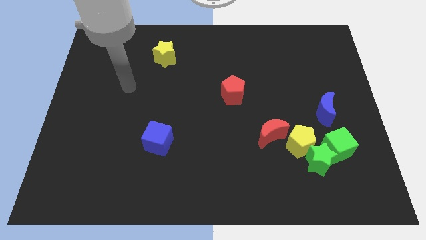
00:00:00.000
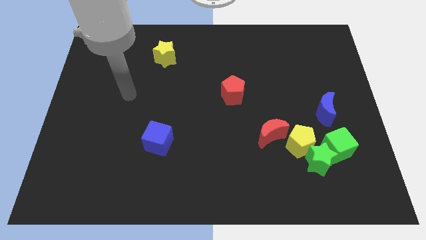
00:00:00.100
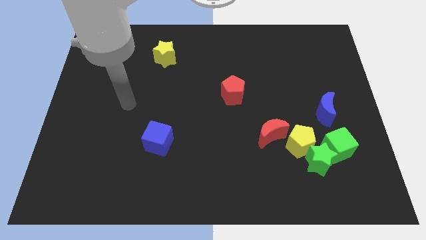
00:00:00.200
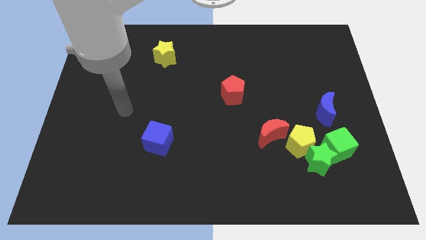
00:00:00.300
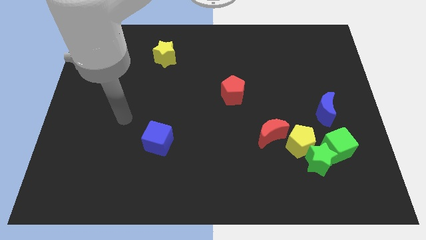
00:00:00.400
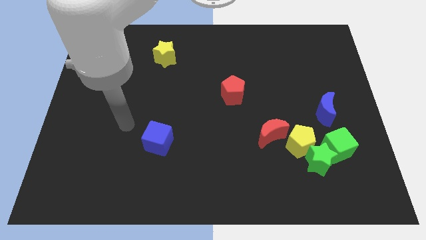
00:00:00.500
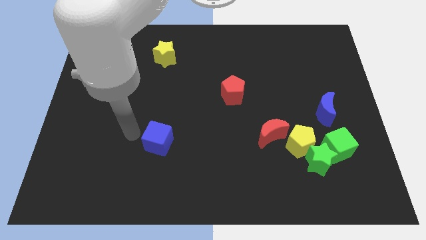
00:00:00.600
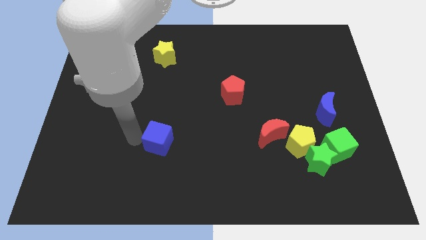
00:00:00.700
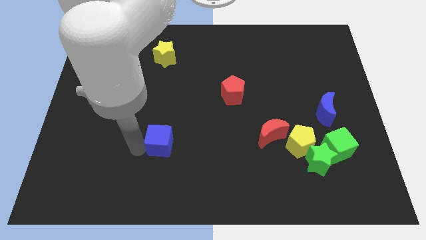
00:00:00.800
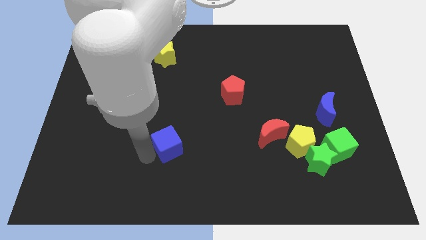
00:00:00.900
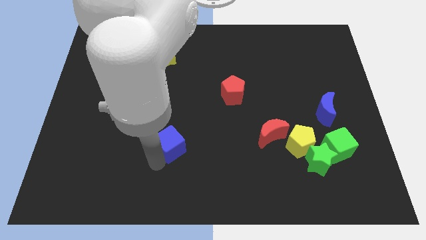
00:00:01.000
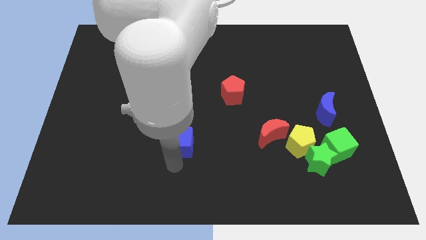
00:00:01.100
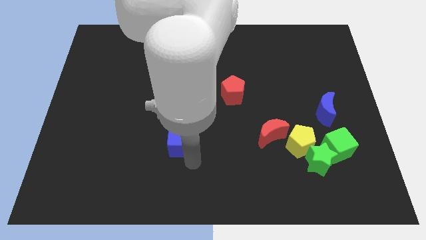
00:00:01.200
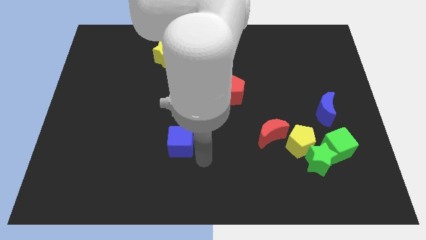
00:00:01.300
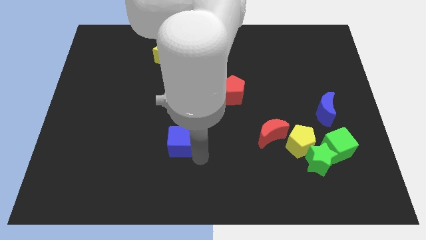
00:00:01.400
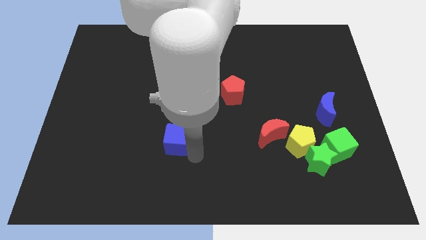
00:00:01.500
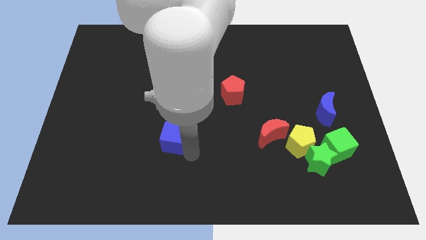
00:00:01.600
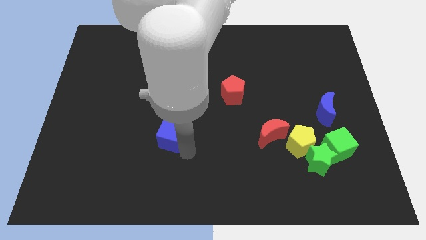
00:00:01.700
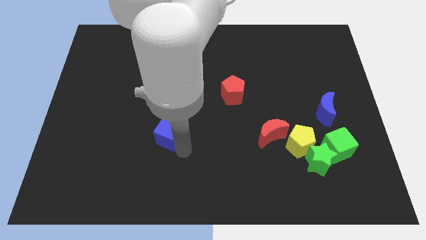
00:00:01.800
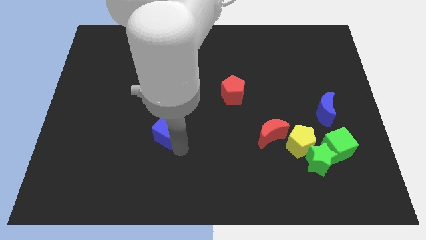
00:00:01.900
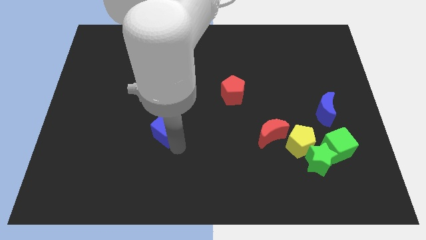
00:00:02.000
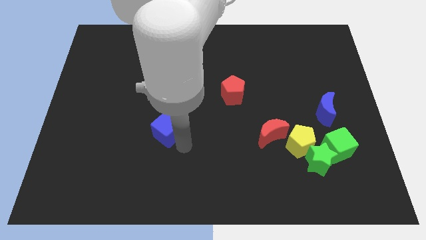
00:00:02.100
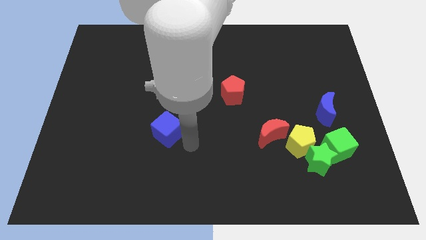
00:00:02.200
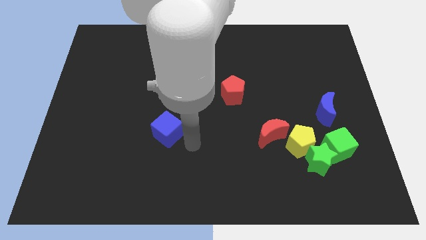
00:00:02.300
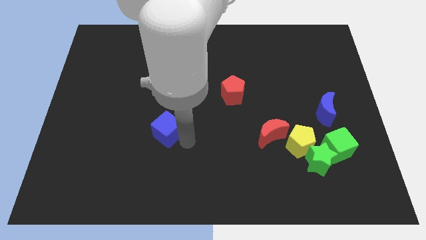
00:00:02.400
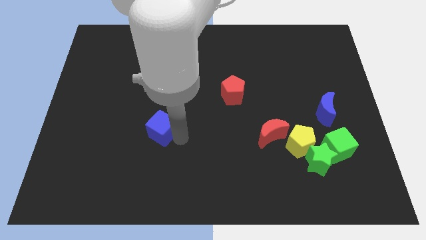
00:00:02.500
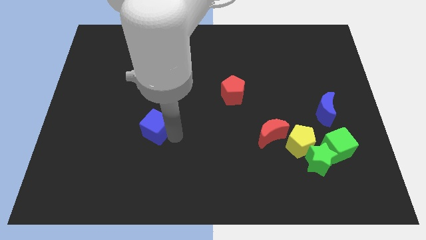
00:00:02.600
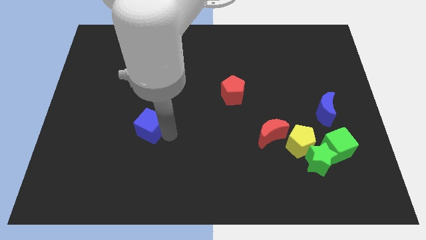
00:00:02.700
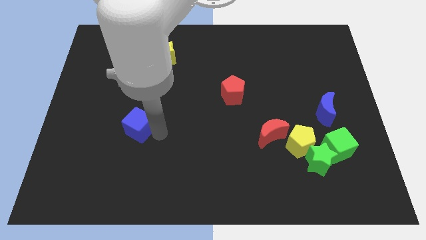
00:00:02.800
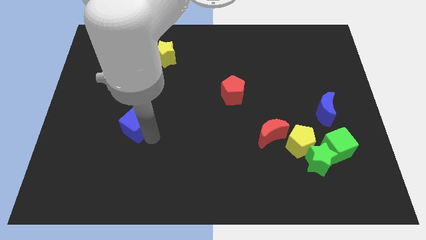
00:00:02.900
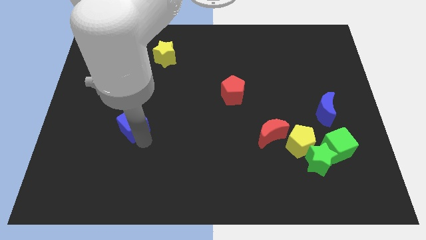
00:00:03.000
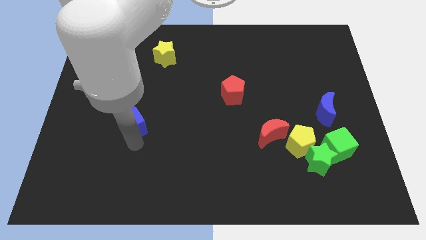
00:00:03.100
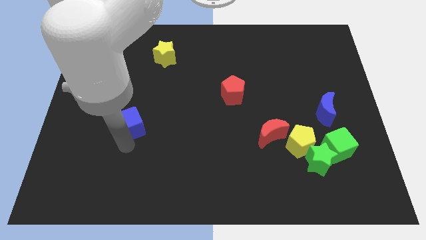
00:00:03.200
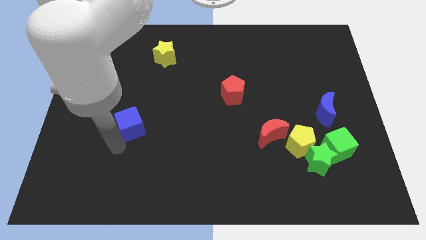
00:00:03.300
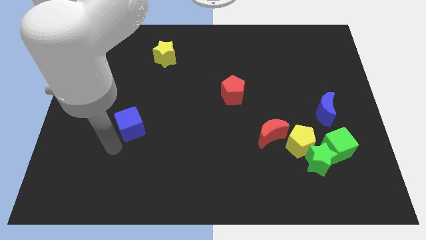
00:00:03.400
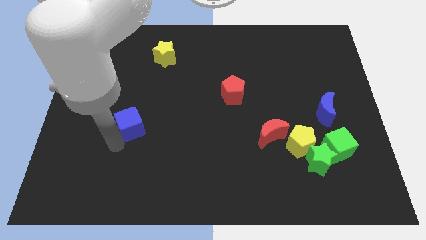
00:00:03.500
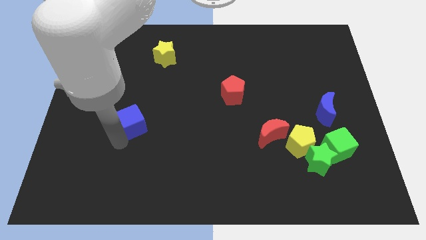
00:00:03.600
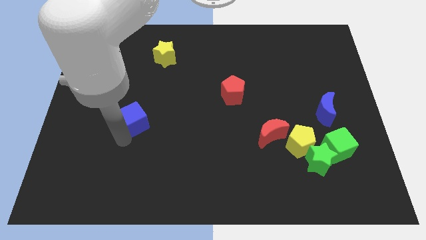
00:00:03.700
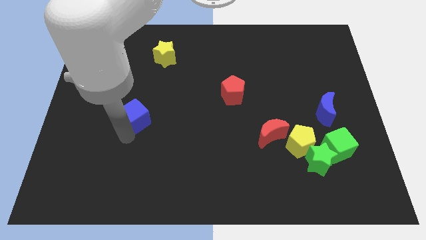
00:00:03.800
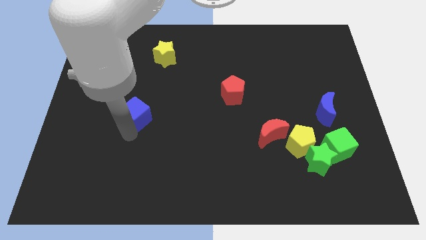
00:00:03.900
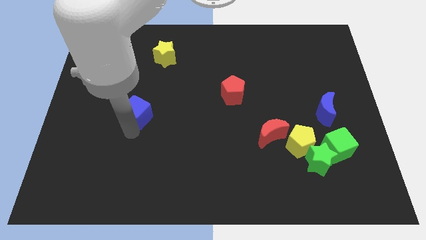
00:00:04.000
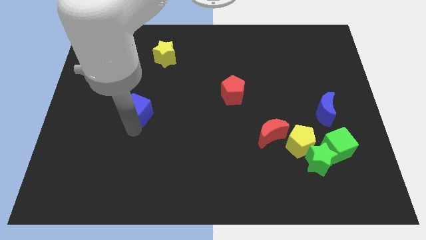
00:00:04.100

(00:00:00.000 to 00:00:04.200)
slightly push the blue cube up

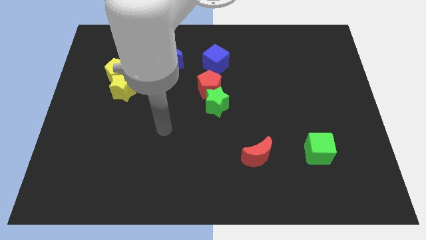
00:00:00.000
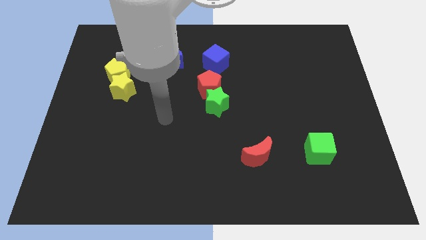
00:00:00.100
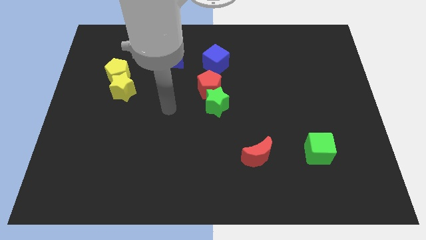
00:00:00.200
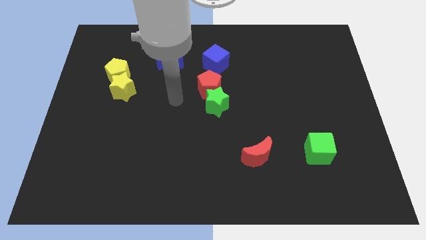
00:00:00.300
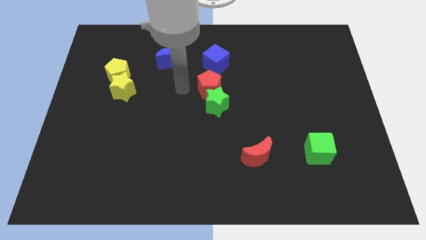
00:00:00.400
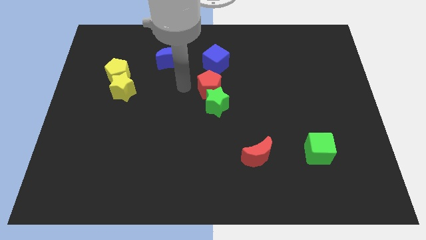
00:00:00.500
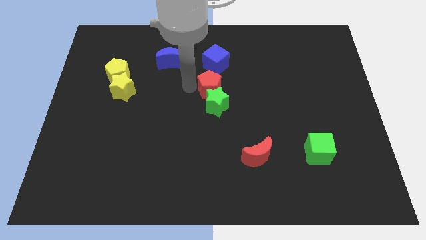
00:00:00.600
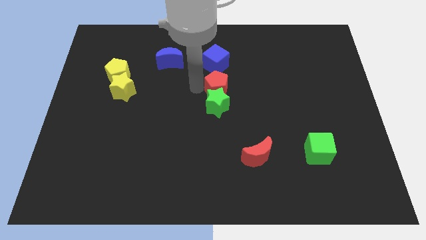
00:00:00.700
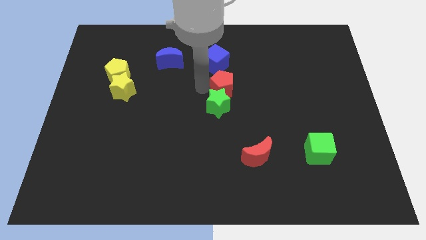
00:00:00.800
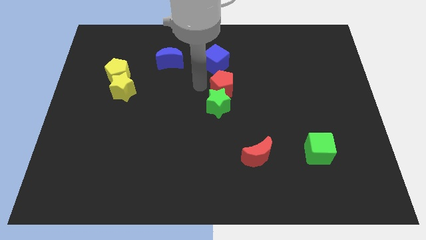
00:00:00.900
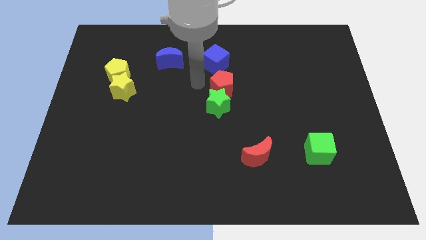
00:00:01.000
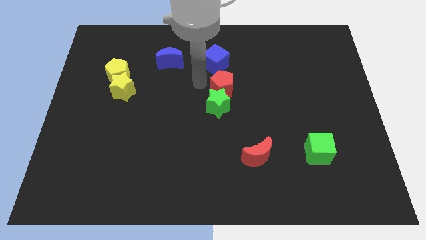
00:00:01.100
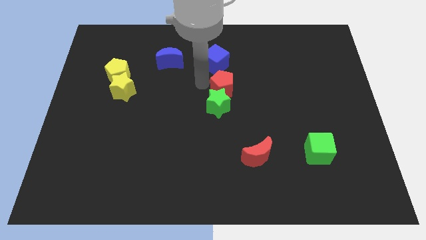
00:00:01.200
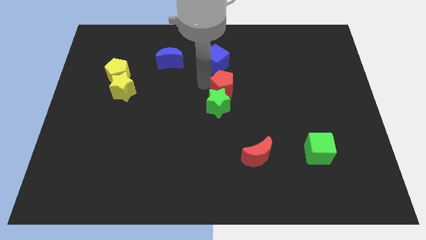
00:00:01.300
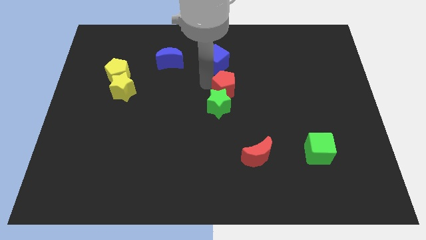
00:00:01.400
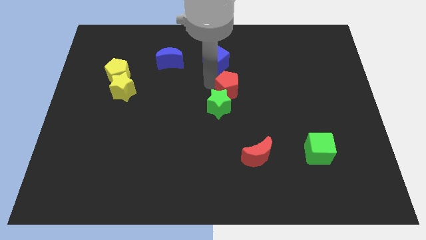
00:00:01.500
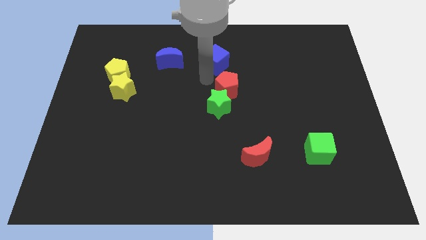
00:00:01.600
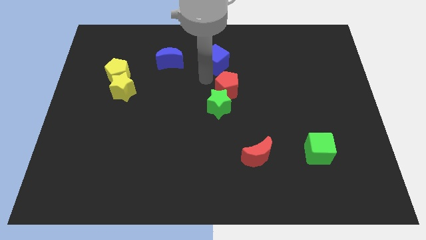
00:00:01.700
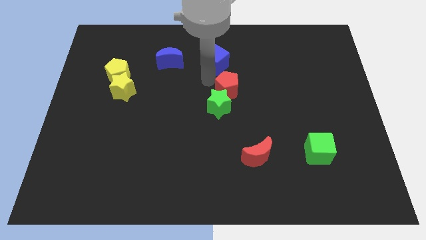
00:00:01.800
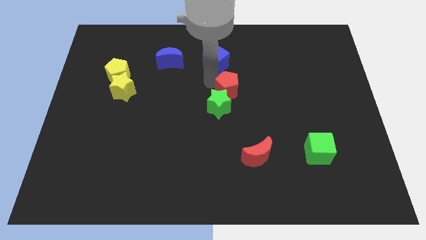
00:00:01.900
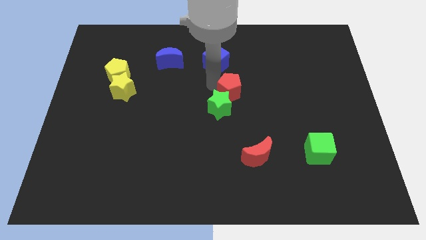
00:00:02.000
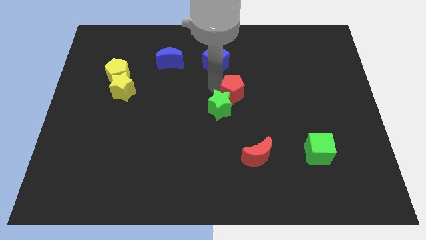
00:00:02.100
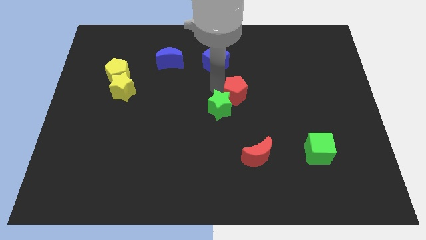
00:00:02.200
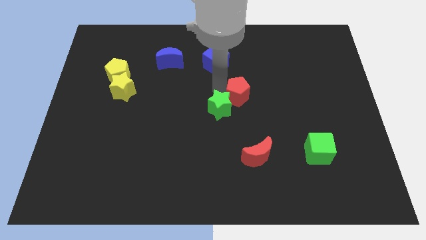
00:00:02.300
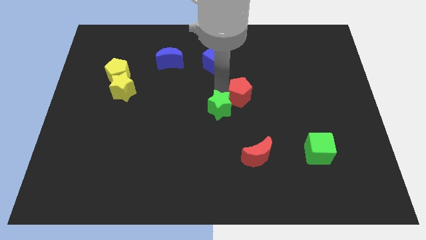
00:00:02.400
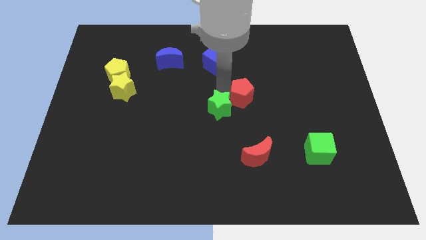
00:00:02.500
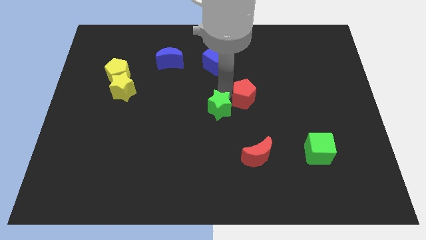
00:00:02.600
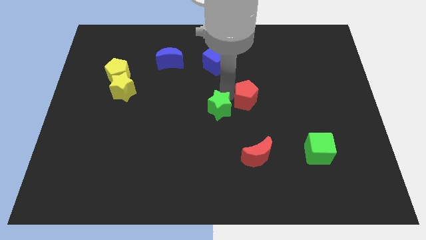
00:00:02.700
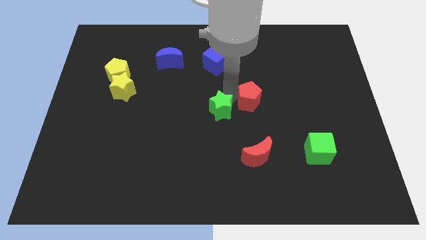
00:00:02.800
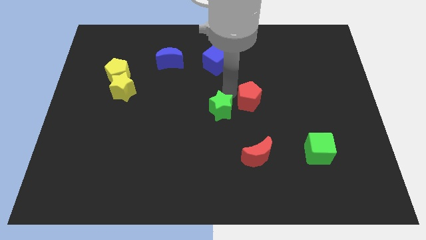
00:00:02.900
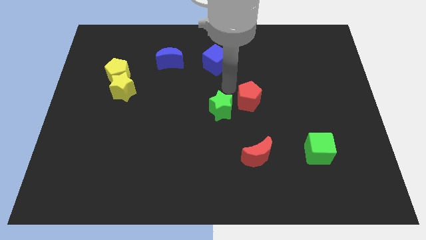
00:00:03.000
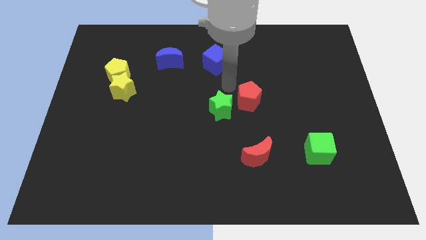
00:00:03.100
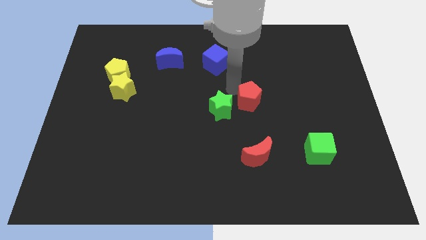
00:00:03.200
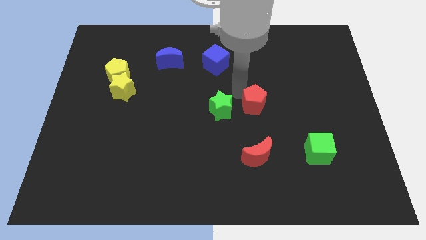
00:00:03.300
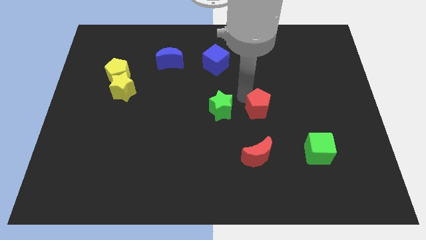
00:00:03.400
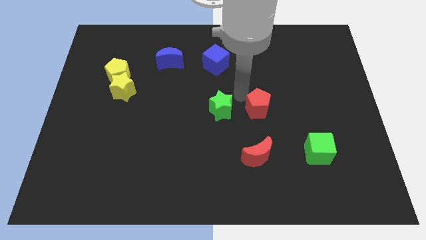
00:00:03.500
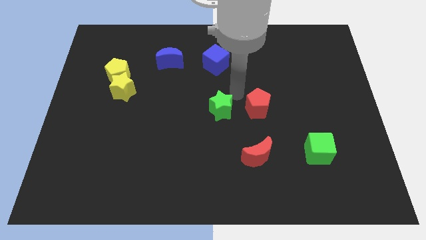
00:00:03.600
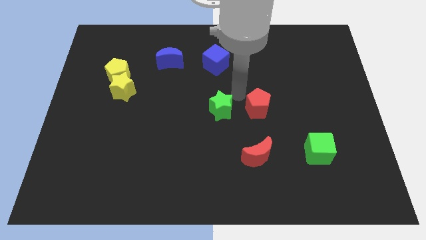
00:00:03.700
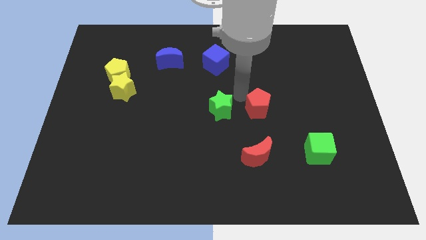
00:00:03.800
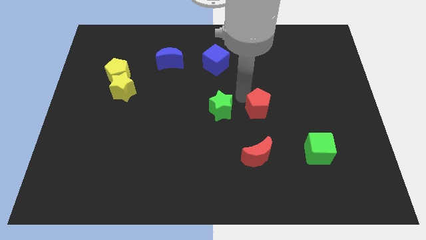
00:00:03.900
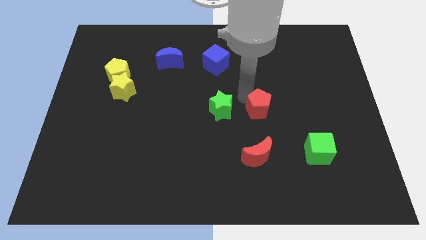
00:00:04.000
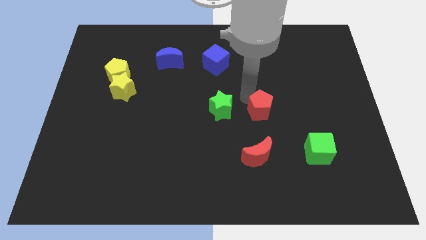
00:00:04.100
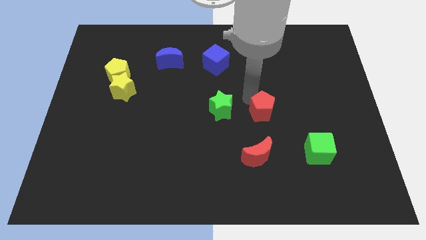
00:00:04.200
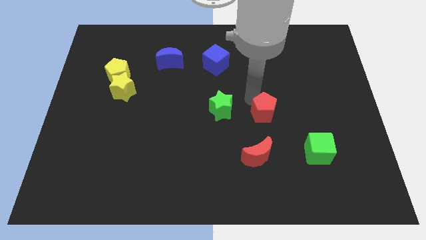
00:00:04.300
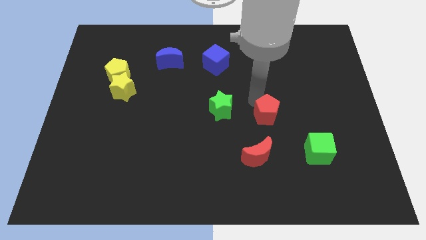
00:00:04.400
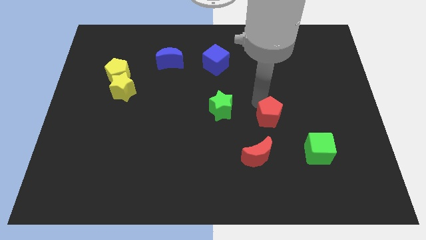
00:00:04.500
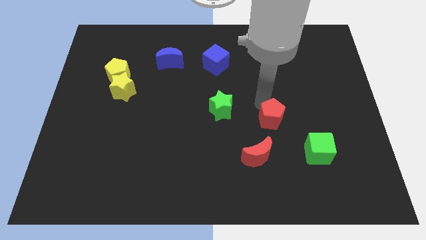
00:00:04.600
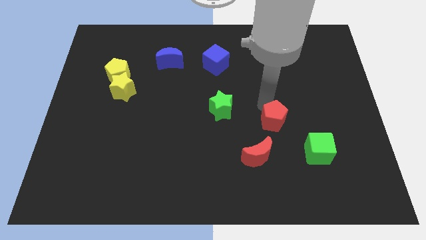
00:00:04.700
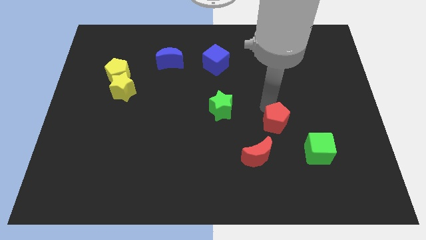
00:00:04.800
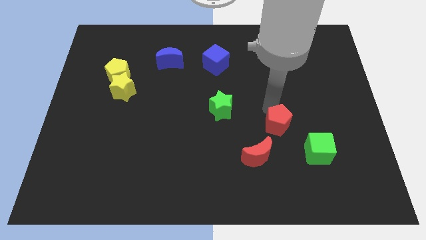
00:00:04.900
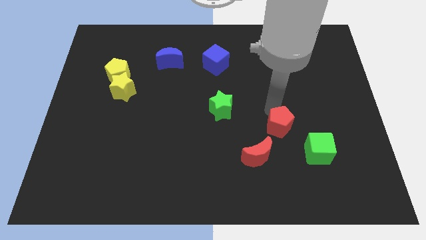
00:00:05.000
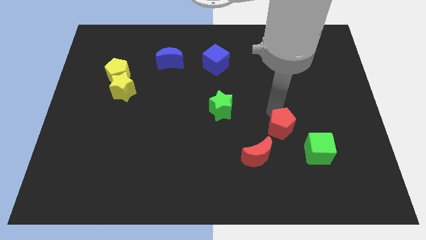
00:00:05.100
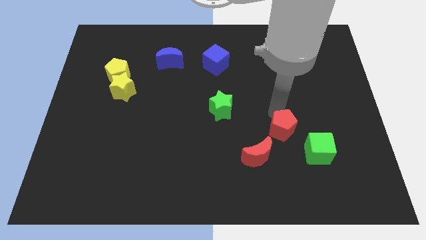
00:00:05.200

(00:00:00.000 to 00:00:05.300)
push the red pentagon diagonally downwards and to the right
